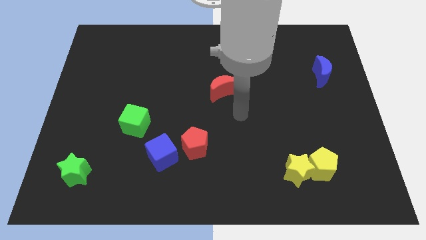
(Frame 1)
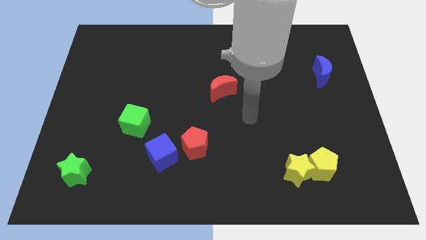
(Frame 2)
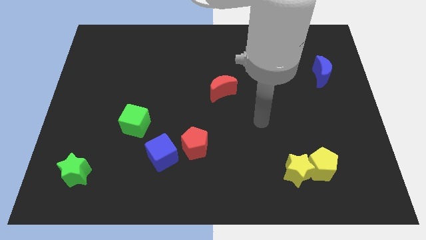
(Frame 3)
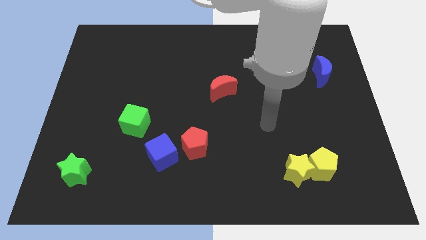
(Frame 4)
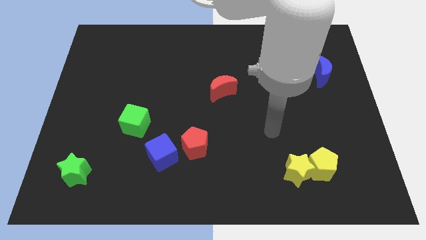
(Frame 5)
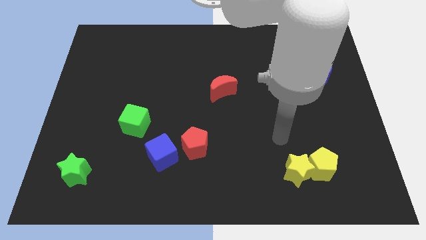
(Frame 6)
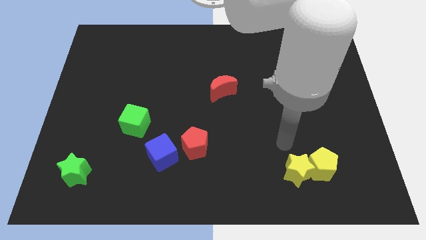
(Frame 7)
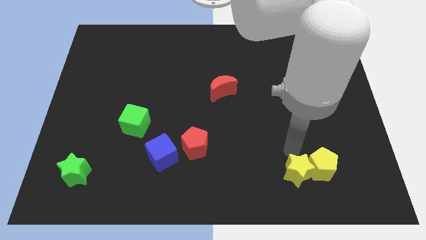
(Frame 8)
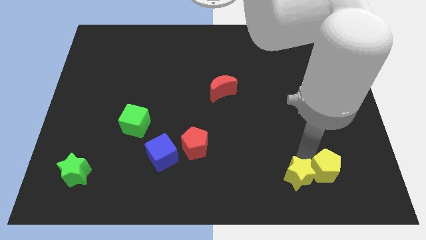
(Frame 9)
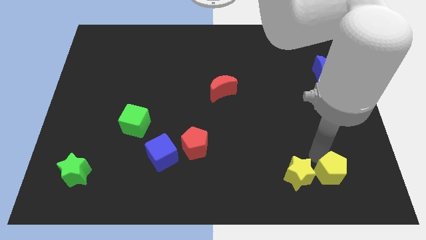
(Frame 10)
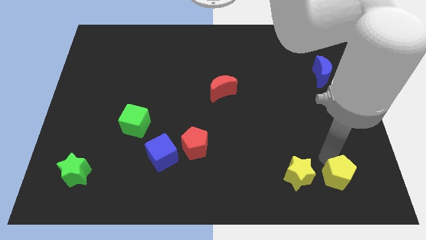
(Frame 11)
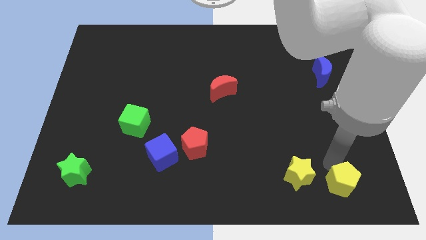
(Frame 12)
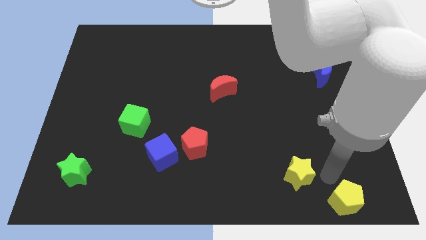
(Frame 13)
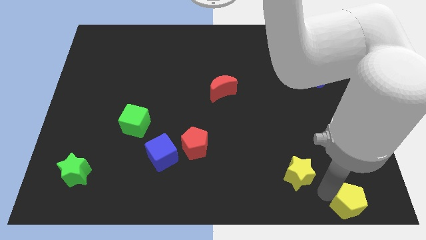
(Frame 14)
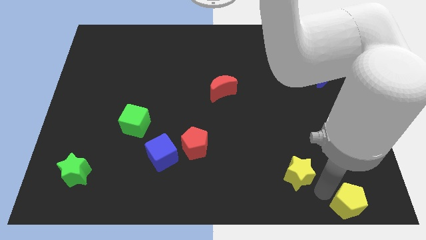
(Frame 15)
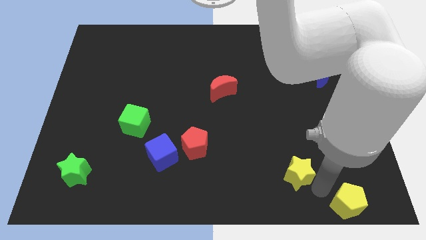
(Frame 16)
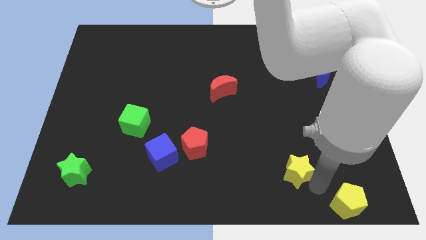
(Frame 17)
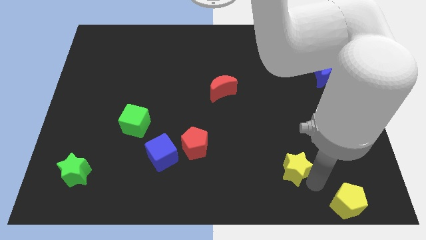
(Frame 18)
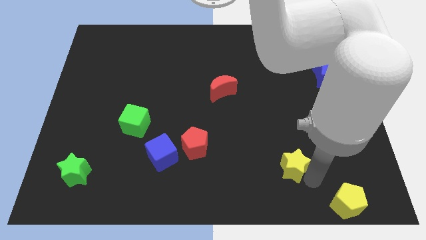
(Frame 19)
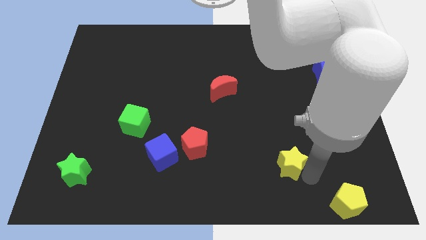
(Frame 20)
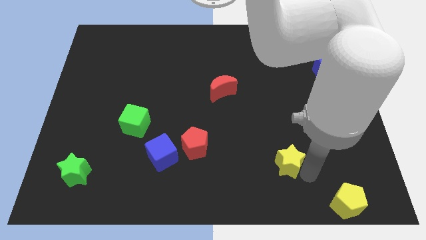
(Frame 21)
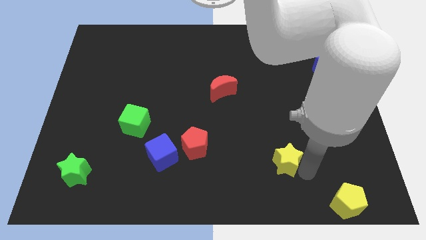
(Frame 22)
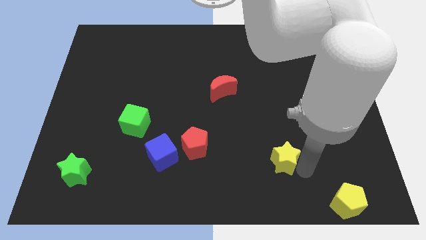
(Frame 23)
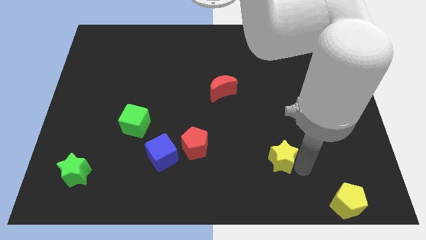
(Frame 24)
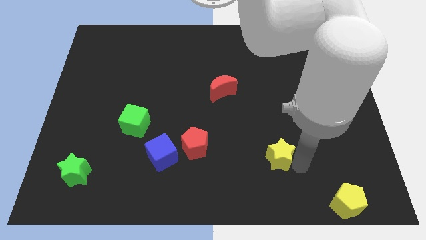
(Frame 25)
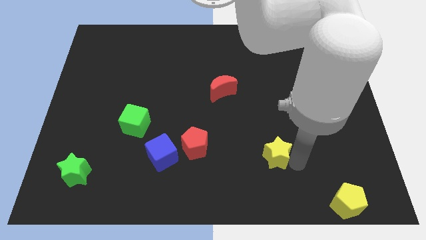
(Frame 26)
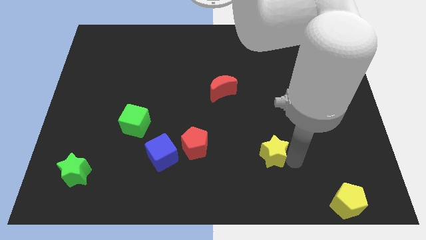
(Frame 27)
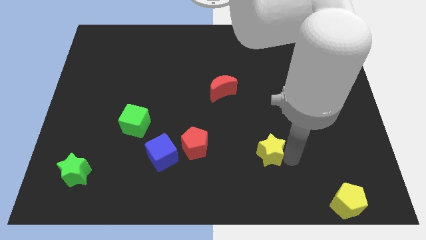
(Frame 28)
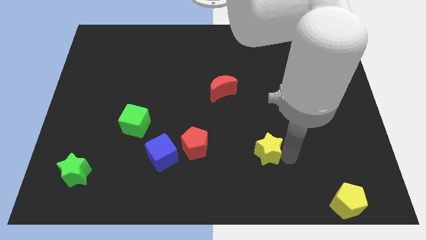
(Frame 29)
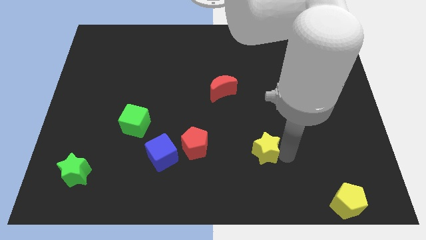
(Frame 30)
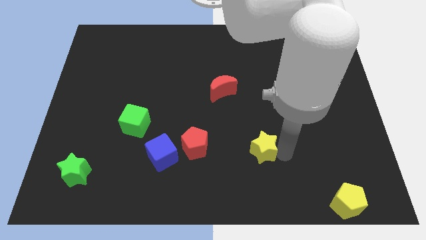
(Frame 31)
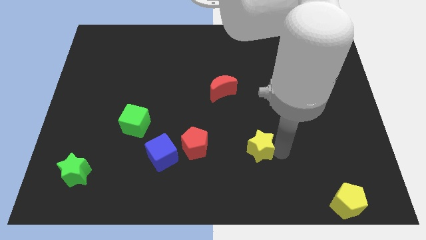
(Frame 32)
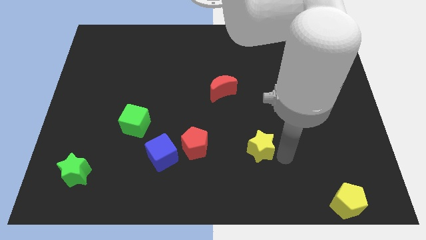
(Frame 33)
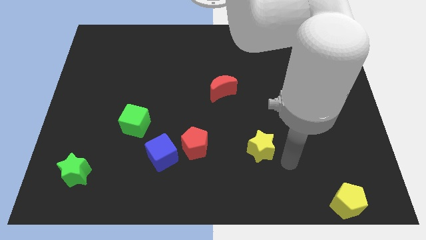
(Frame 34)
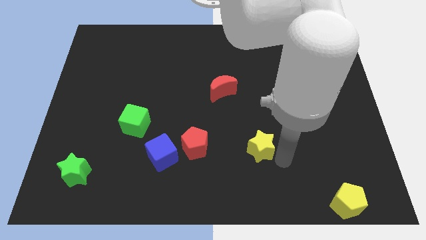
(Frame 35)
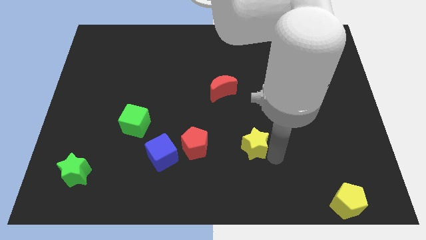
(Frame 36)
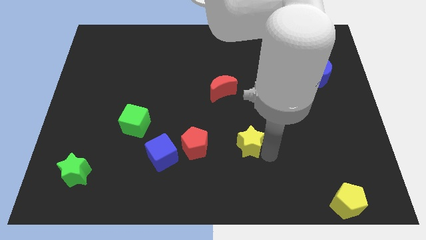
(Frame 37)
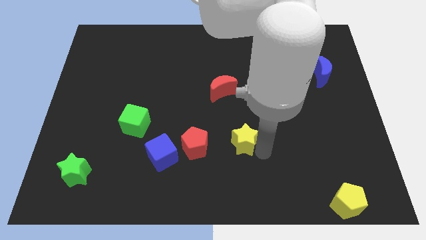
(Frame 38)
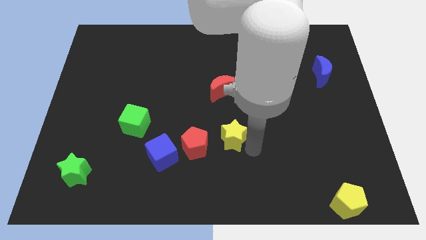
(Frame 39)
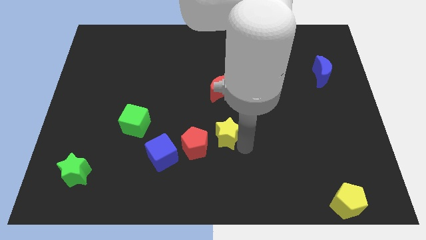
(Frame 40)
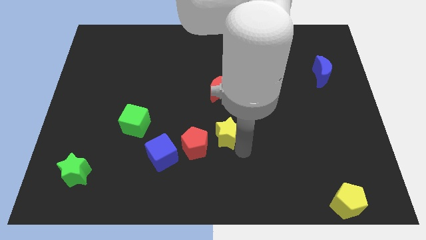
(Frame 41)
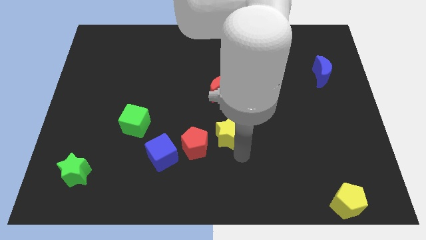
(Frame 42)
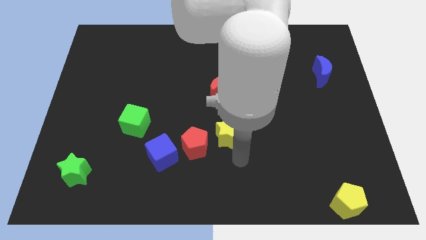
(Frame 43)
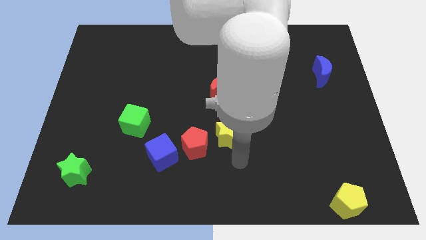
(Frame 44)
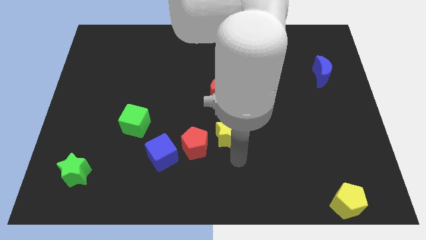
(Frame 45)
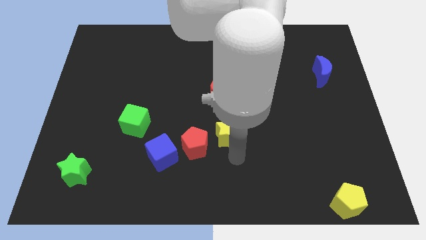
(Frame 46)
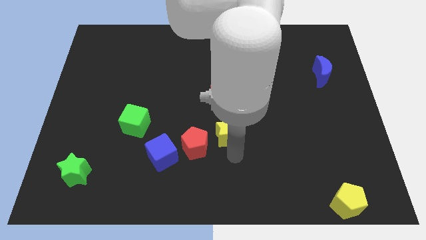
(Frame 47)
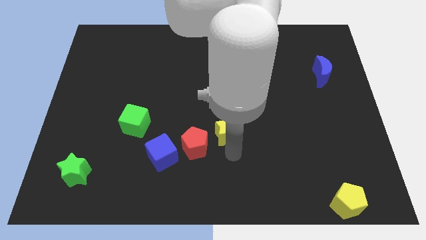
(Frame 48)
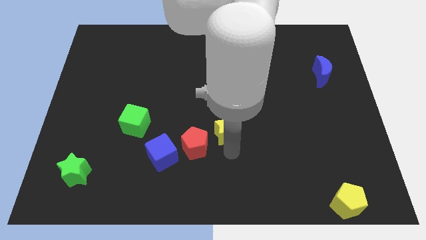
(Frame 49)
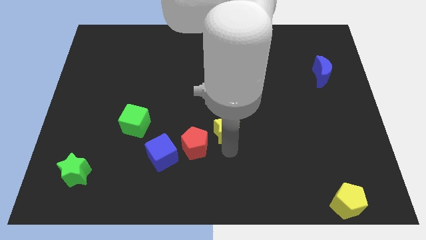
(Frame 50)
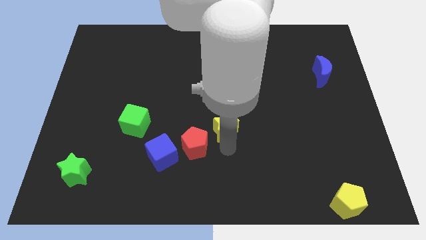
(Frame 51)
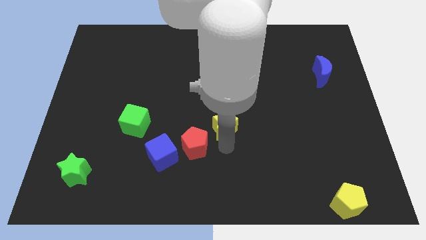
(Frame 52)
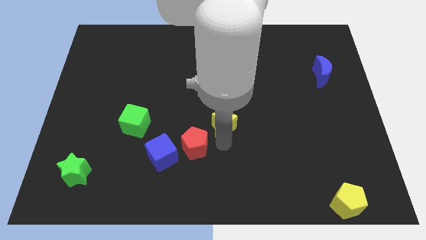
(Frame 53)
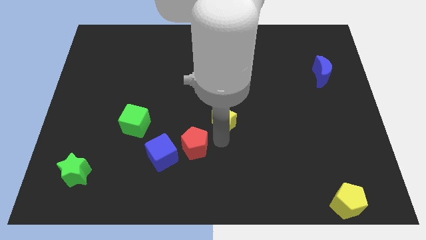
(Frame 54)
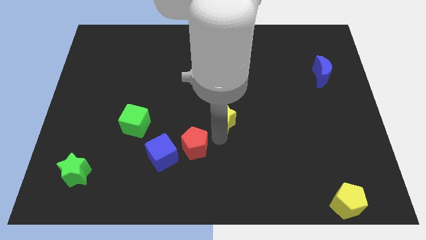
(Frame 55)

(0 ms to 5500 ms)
push the yellow star up and to the left diagonally

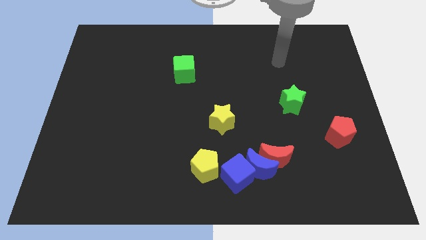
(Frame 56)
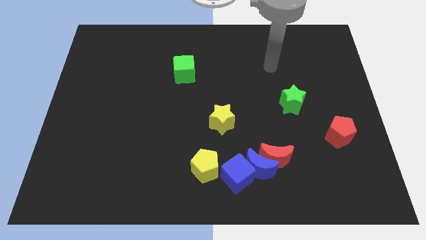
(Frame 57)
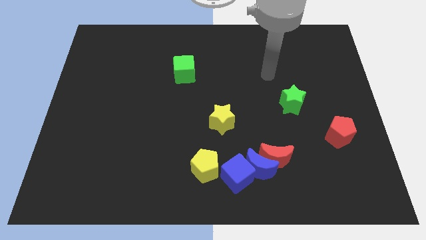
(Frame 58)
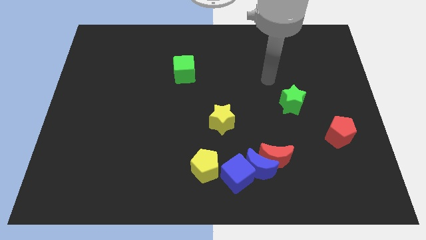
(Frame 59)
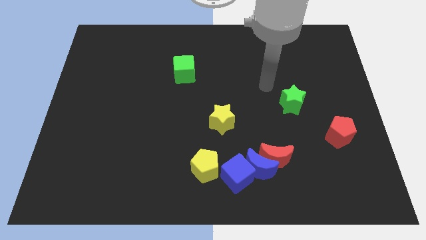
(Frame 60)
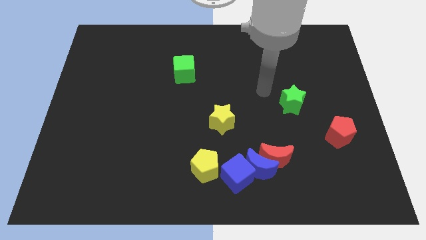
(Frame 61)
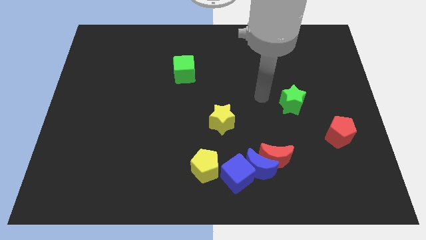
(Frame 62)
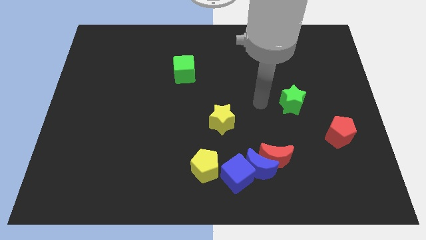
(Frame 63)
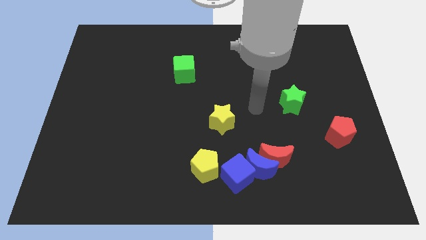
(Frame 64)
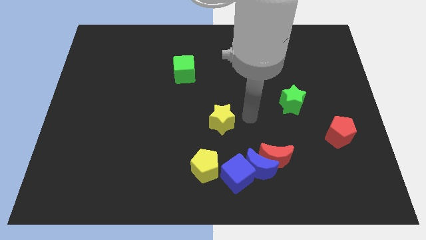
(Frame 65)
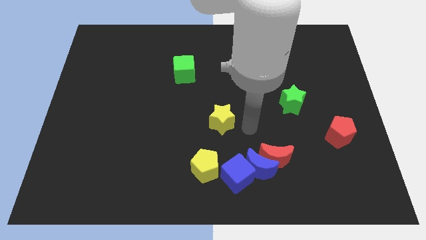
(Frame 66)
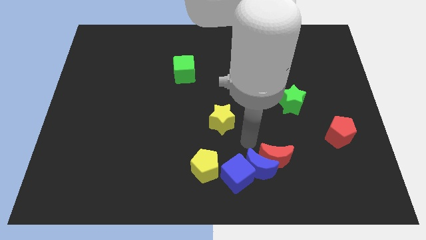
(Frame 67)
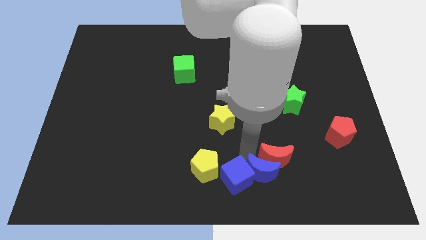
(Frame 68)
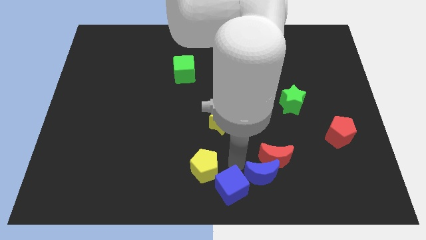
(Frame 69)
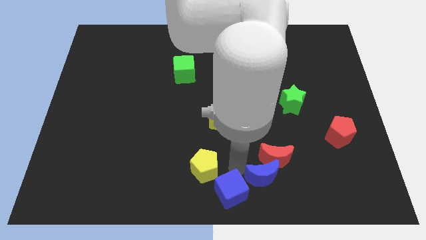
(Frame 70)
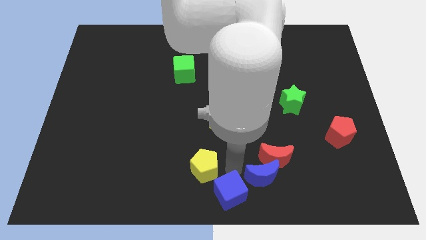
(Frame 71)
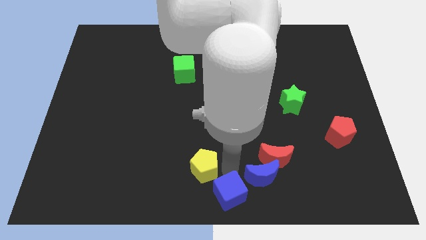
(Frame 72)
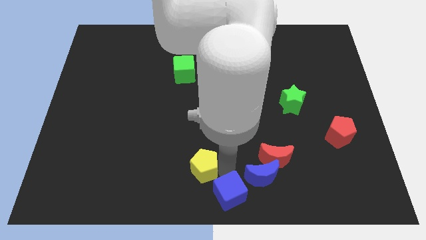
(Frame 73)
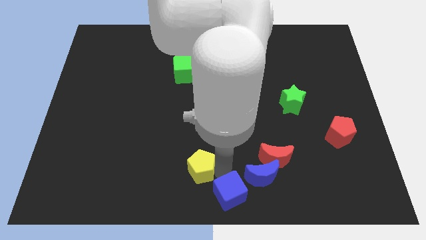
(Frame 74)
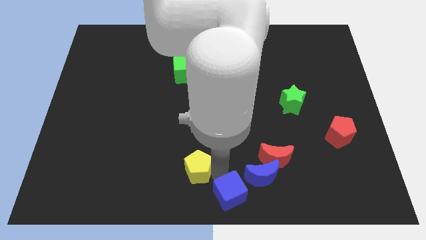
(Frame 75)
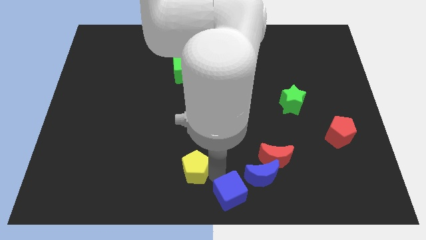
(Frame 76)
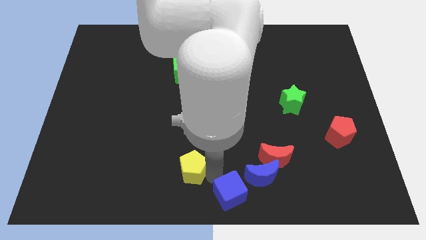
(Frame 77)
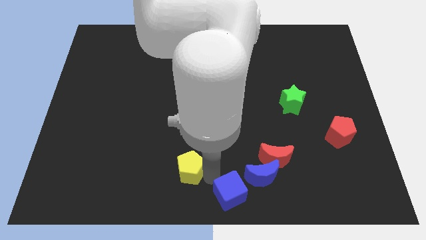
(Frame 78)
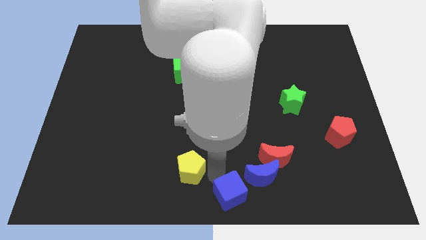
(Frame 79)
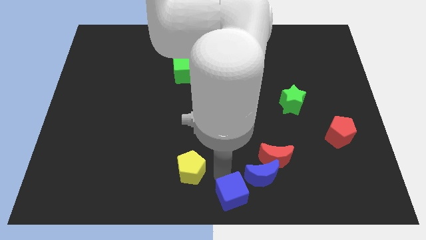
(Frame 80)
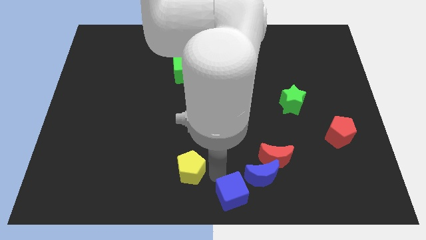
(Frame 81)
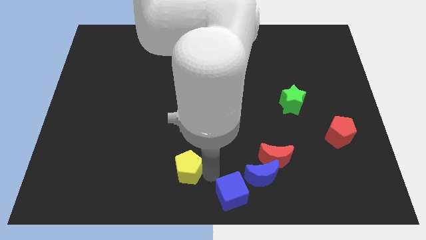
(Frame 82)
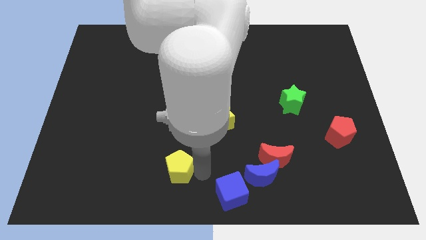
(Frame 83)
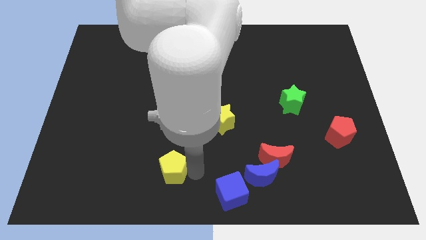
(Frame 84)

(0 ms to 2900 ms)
move the yellow pentagon left a little

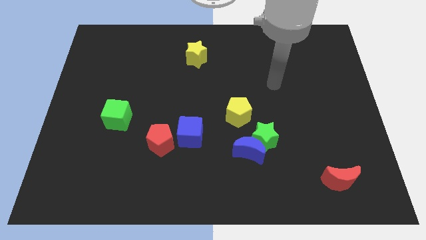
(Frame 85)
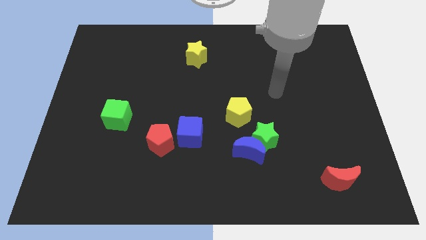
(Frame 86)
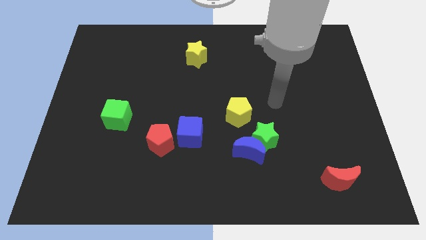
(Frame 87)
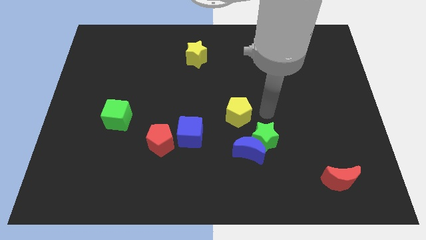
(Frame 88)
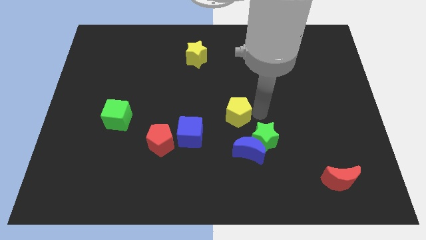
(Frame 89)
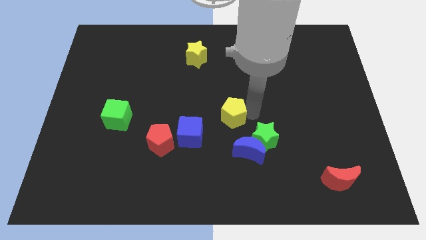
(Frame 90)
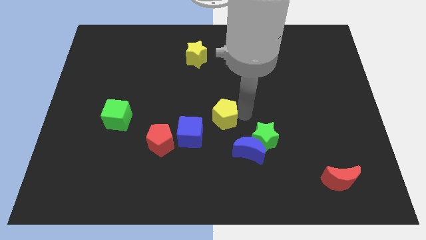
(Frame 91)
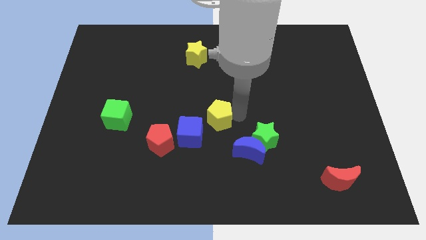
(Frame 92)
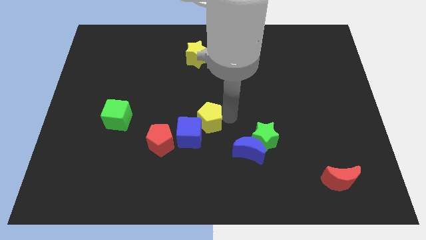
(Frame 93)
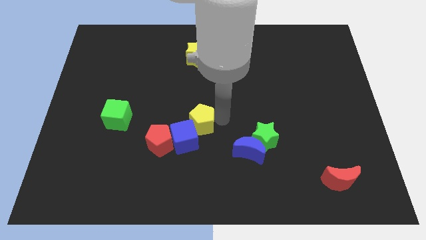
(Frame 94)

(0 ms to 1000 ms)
slightly slide the yellow pentagon left
